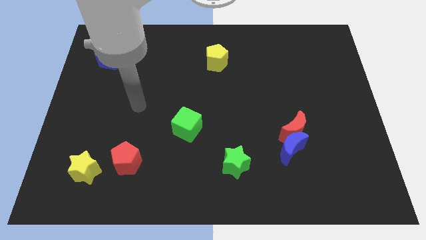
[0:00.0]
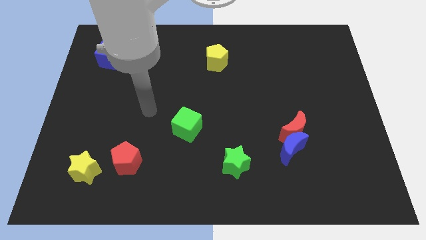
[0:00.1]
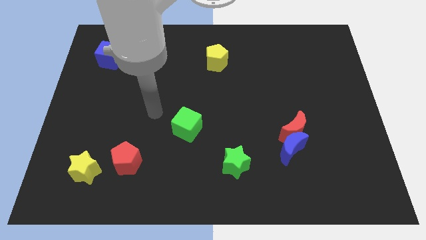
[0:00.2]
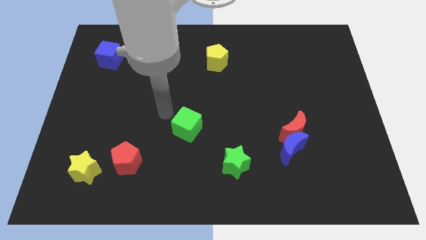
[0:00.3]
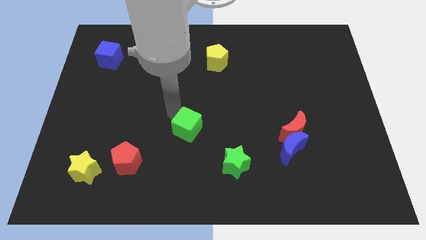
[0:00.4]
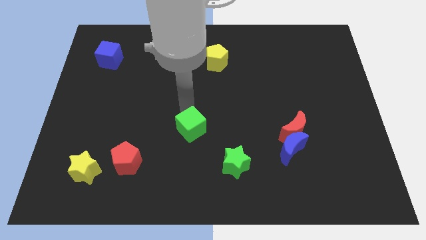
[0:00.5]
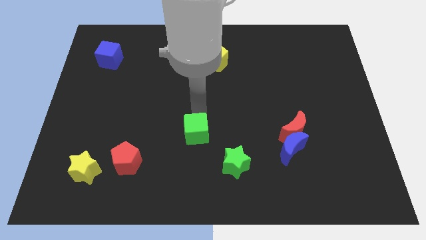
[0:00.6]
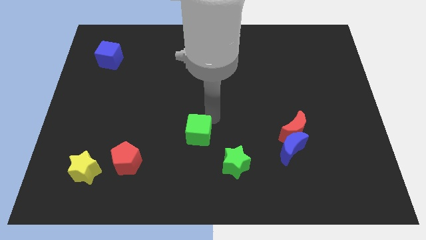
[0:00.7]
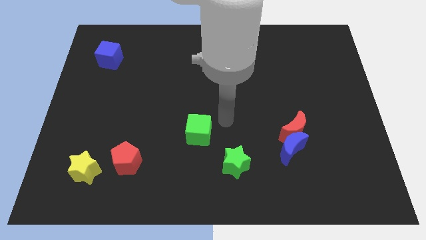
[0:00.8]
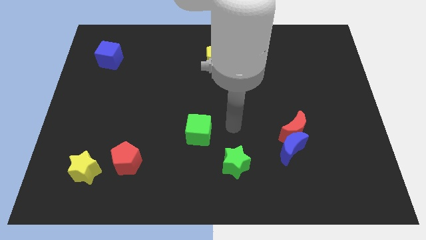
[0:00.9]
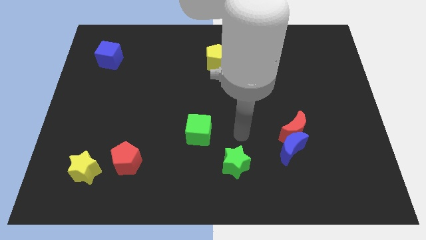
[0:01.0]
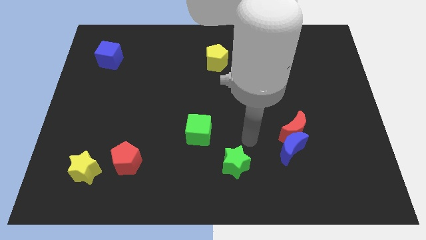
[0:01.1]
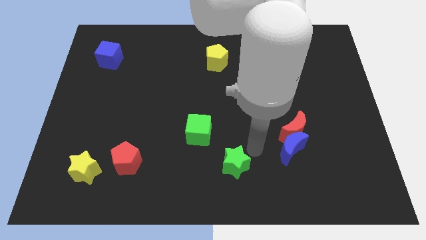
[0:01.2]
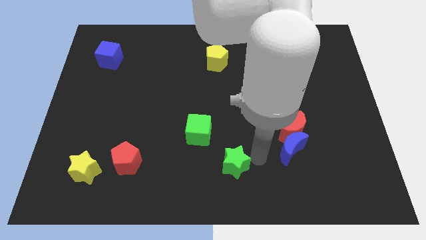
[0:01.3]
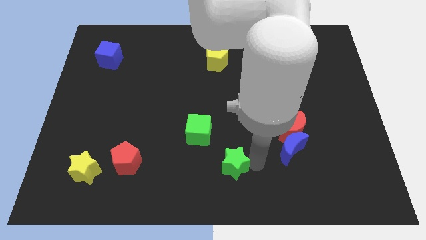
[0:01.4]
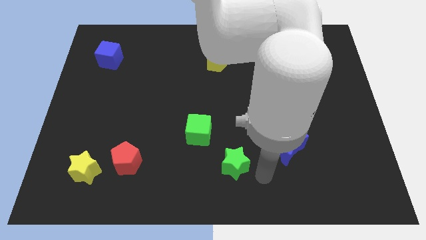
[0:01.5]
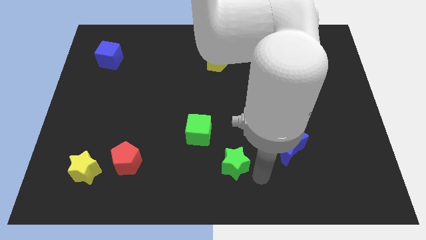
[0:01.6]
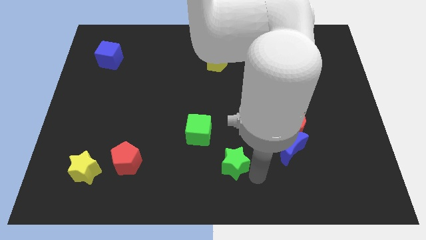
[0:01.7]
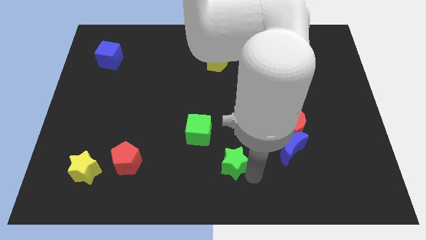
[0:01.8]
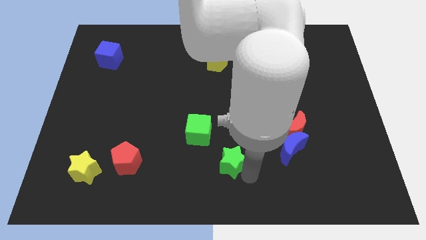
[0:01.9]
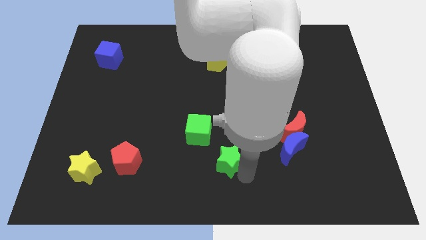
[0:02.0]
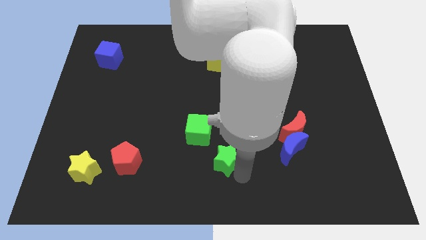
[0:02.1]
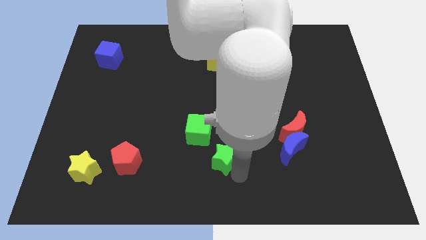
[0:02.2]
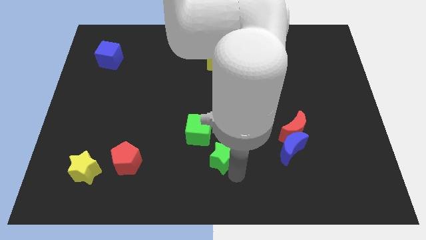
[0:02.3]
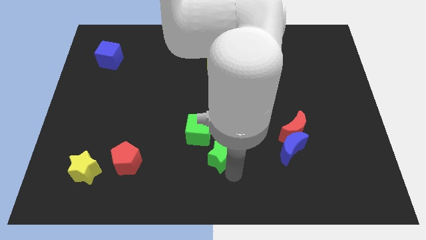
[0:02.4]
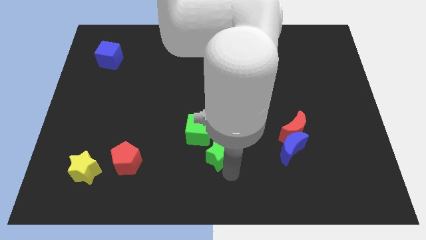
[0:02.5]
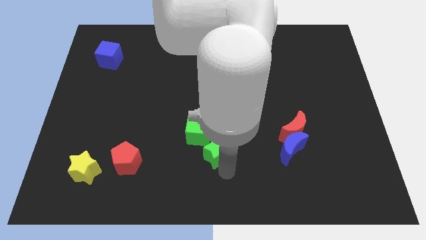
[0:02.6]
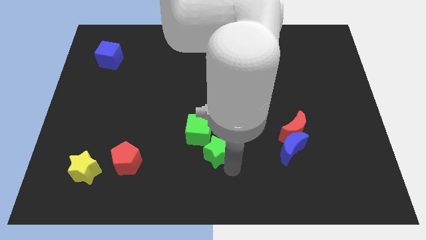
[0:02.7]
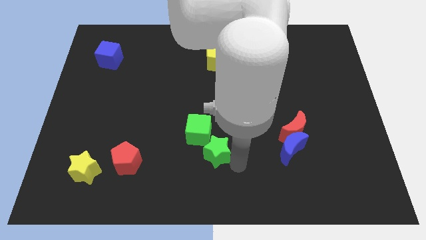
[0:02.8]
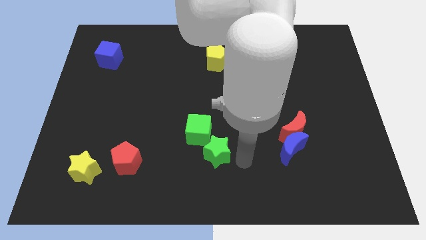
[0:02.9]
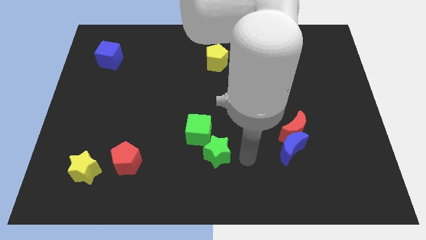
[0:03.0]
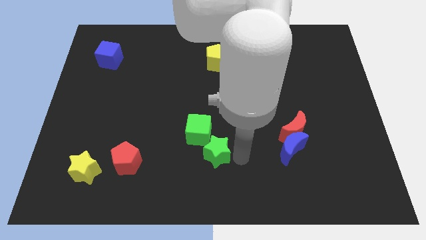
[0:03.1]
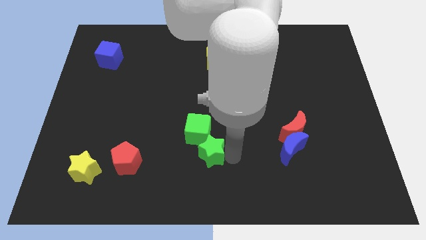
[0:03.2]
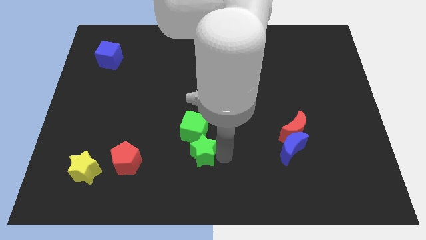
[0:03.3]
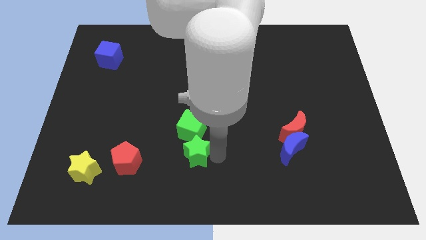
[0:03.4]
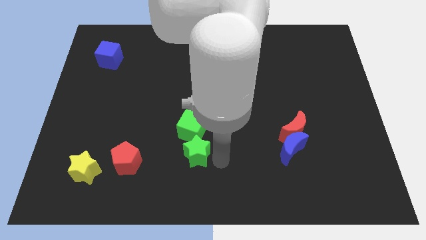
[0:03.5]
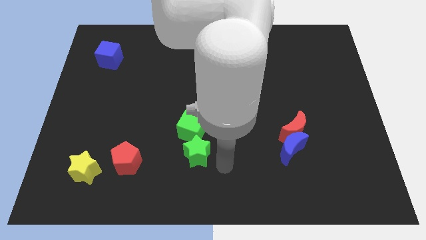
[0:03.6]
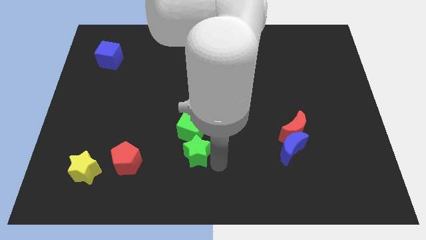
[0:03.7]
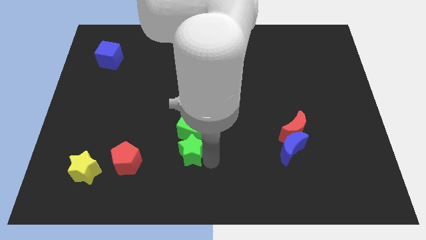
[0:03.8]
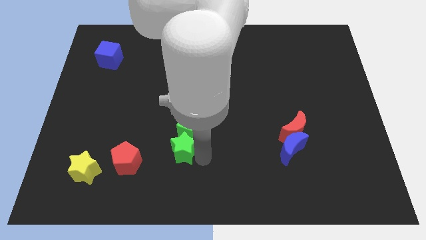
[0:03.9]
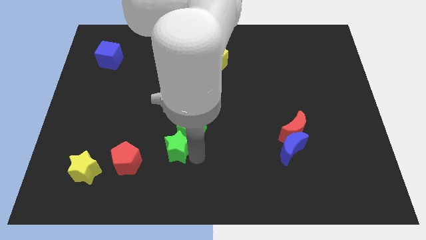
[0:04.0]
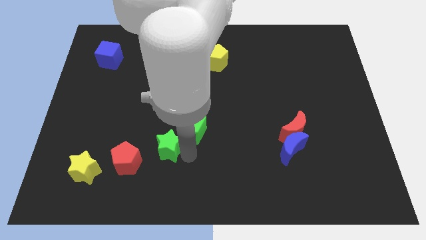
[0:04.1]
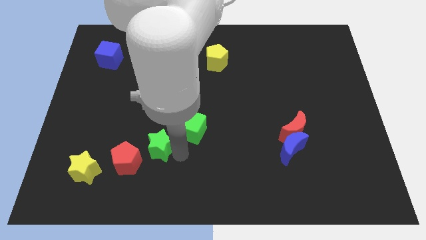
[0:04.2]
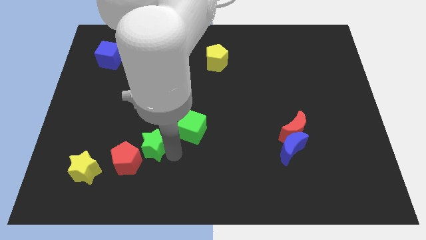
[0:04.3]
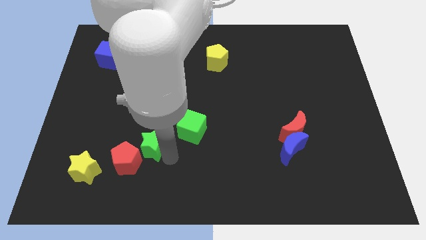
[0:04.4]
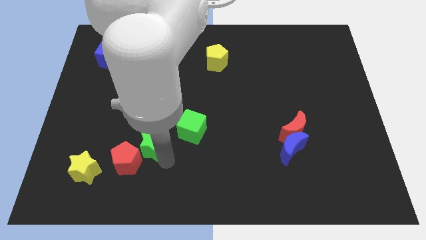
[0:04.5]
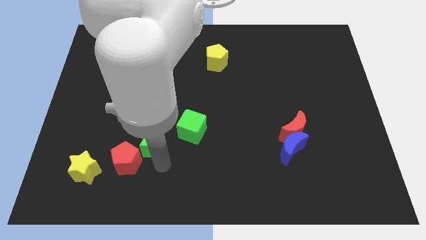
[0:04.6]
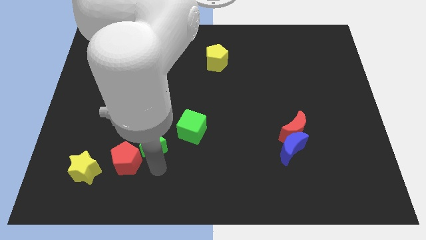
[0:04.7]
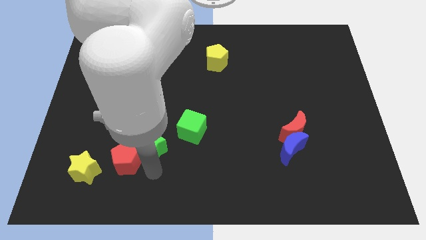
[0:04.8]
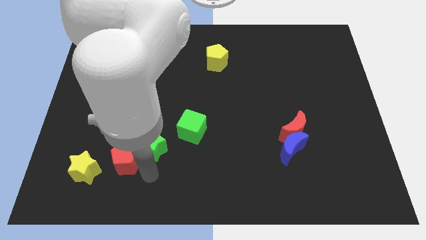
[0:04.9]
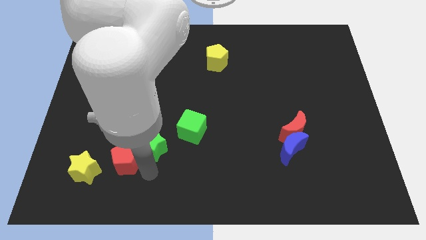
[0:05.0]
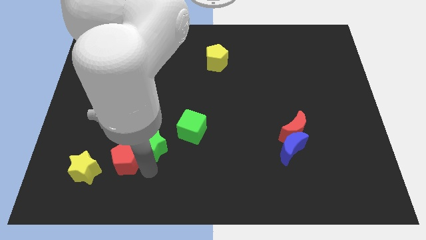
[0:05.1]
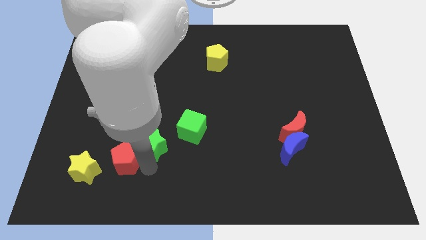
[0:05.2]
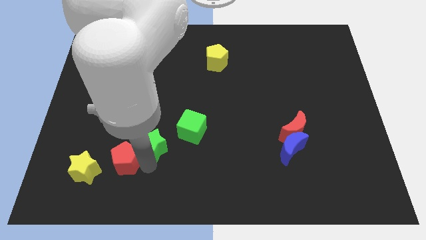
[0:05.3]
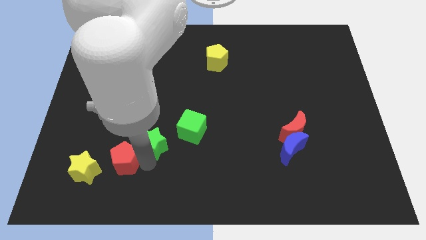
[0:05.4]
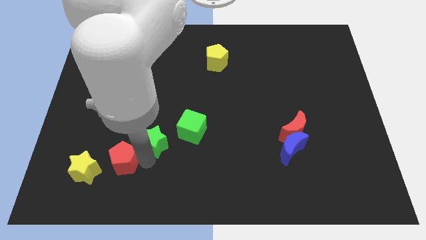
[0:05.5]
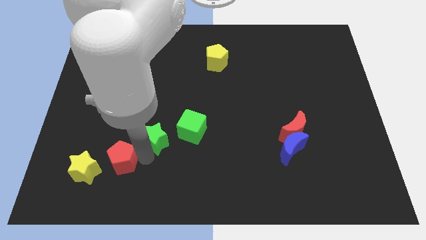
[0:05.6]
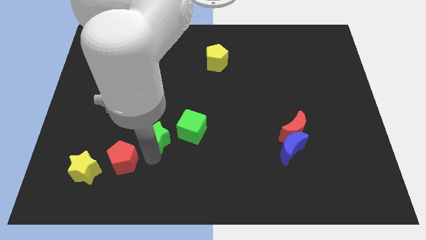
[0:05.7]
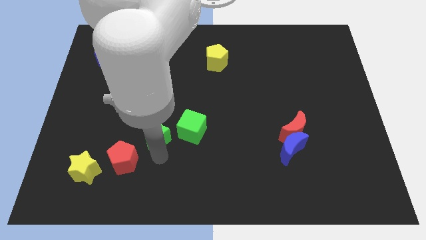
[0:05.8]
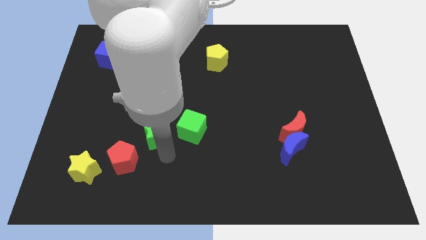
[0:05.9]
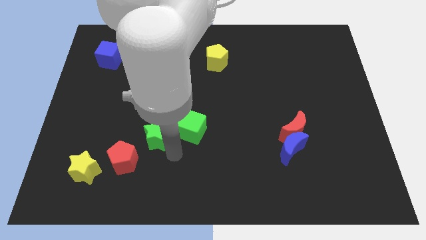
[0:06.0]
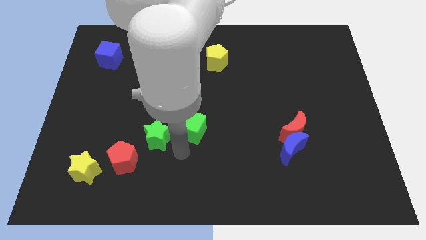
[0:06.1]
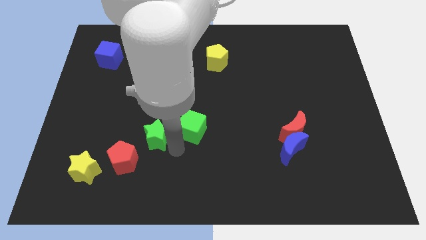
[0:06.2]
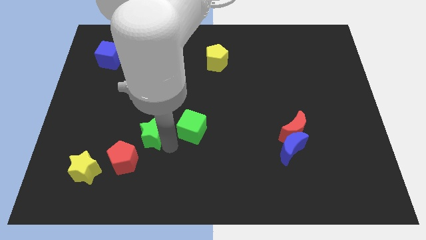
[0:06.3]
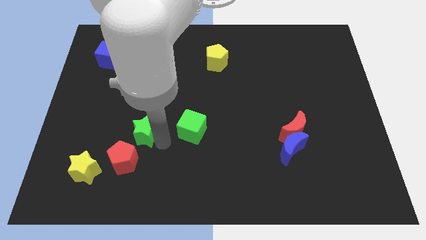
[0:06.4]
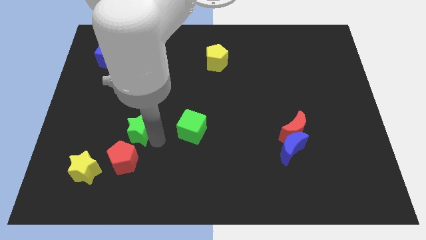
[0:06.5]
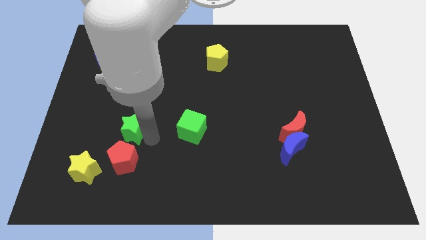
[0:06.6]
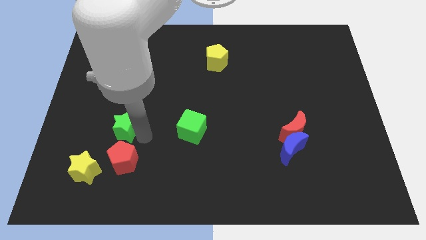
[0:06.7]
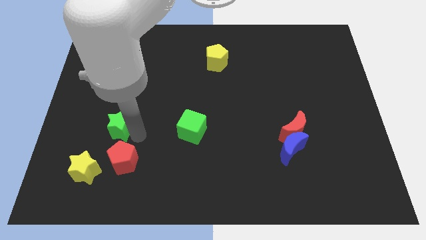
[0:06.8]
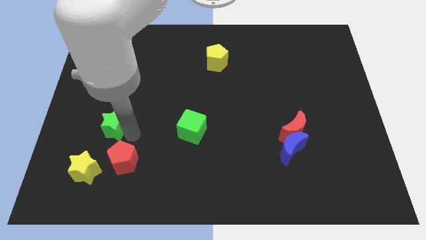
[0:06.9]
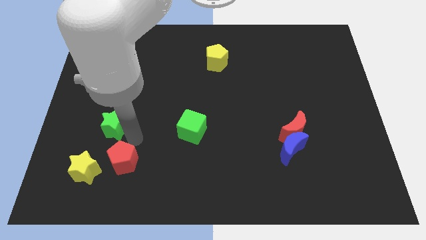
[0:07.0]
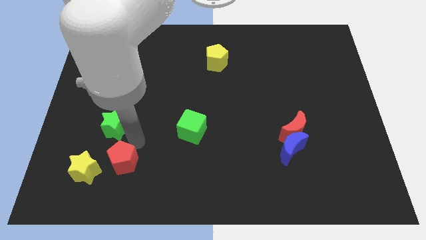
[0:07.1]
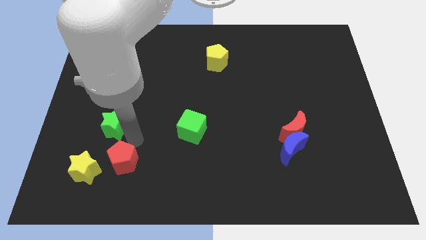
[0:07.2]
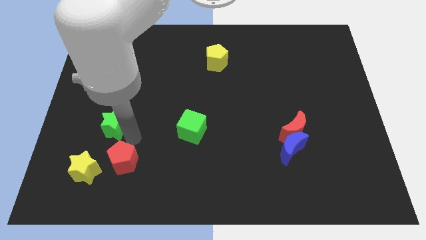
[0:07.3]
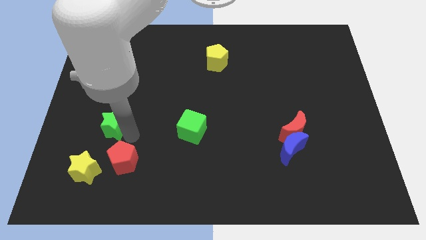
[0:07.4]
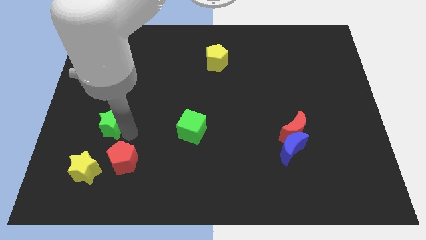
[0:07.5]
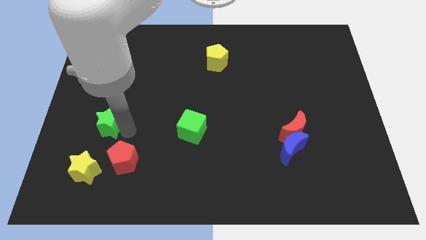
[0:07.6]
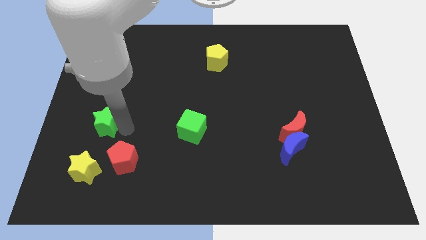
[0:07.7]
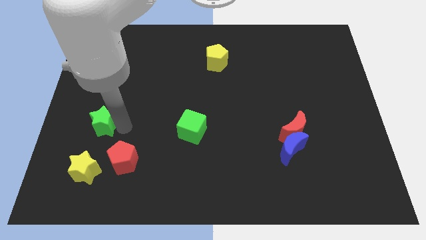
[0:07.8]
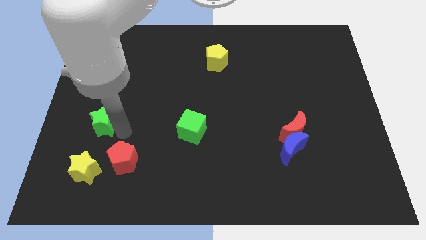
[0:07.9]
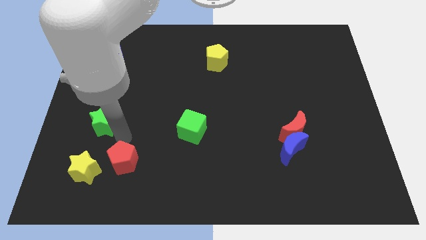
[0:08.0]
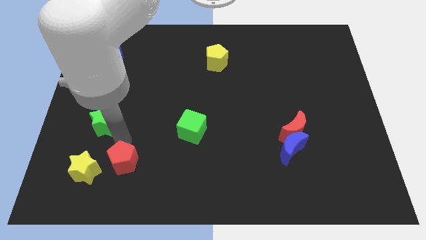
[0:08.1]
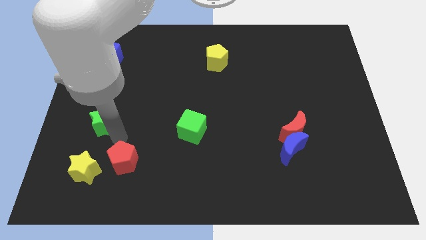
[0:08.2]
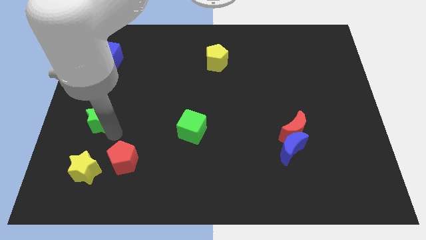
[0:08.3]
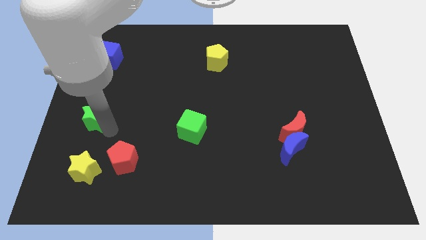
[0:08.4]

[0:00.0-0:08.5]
move the green star to the center left
